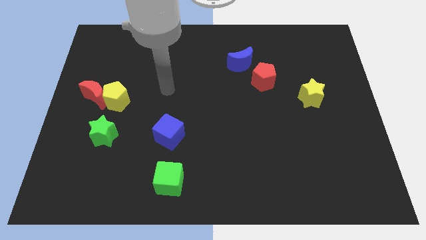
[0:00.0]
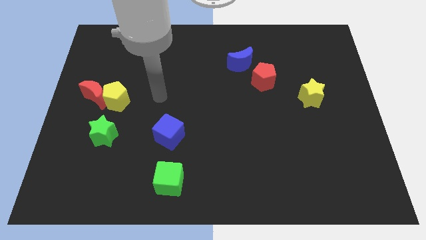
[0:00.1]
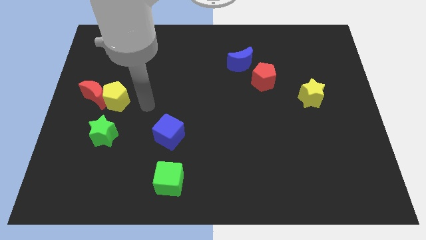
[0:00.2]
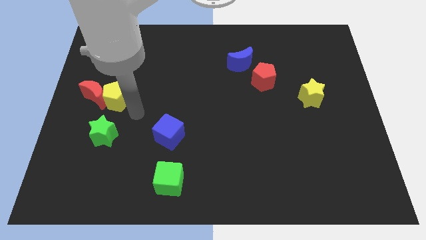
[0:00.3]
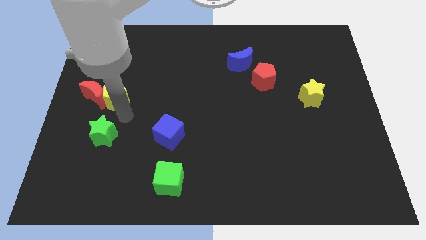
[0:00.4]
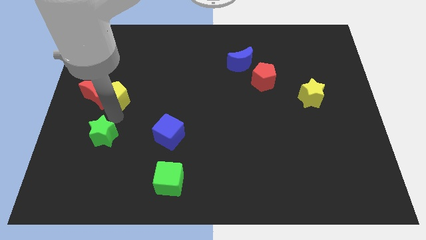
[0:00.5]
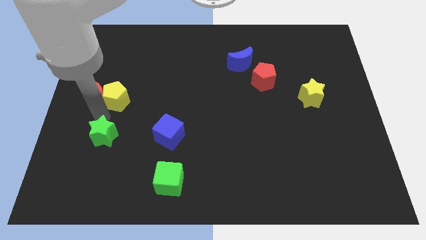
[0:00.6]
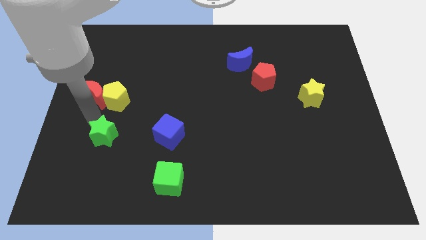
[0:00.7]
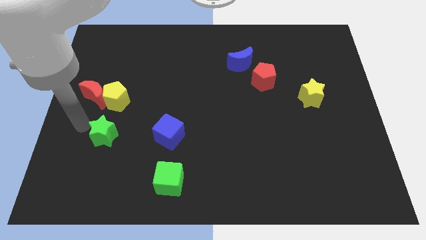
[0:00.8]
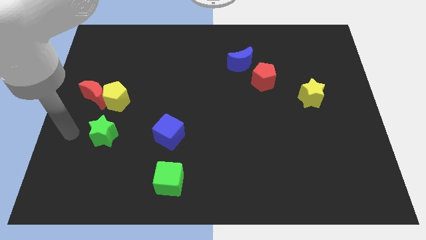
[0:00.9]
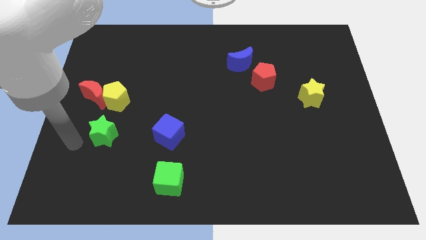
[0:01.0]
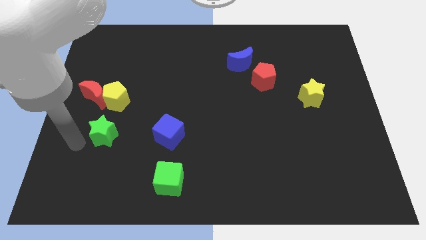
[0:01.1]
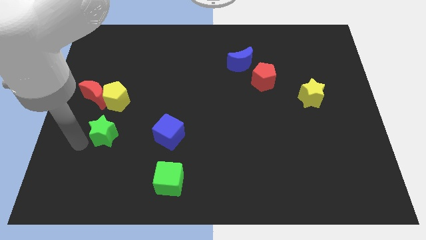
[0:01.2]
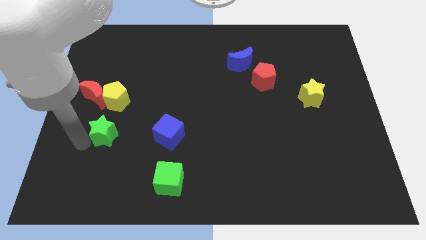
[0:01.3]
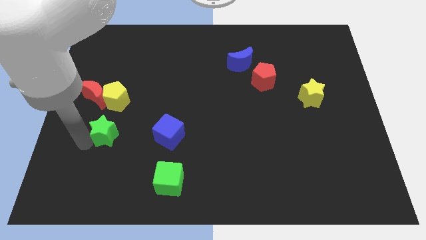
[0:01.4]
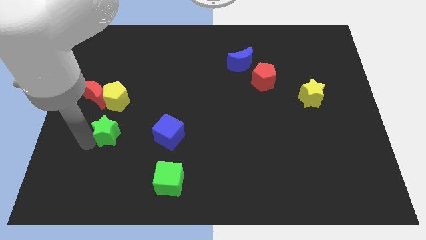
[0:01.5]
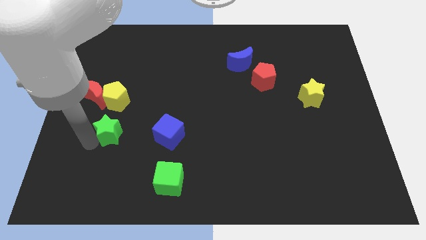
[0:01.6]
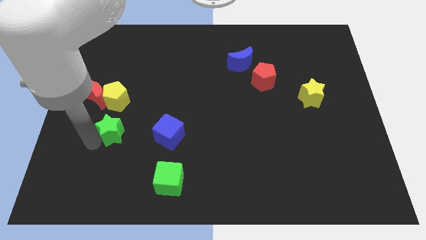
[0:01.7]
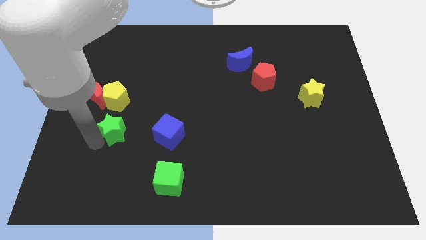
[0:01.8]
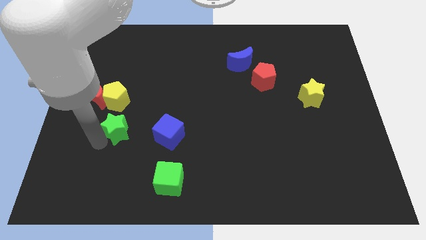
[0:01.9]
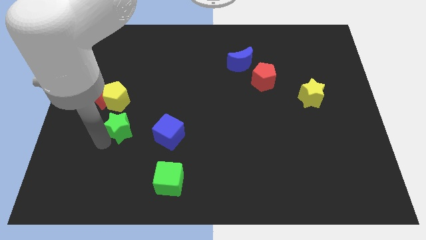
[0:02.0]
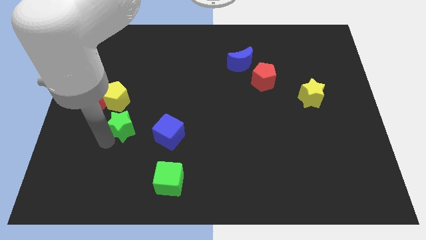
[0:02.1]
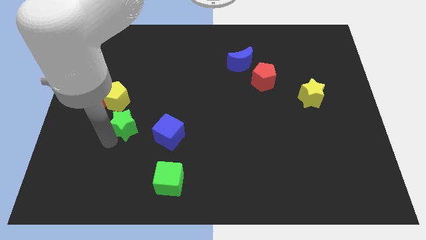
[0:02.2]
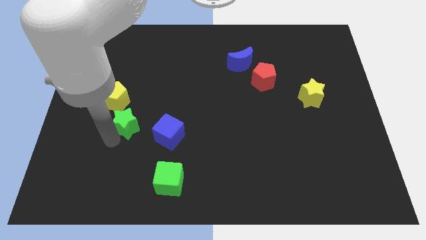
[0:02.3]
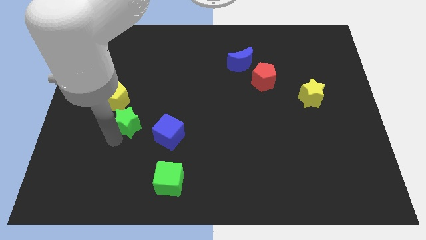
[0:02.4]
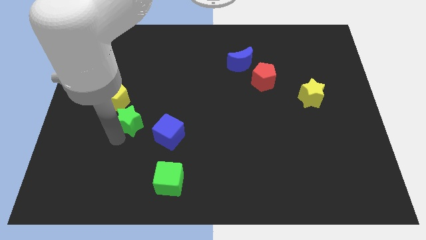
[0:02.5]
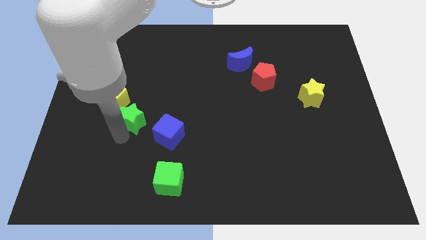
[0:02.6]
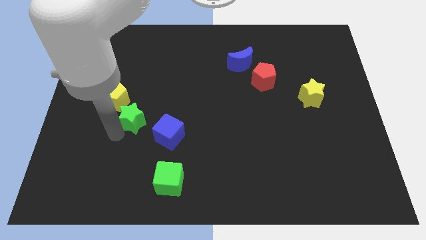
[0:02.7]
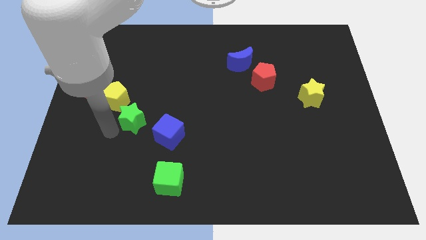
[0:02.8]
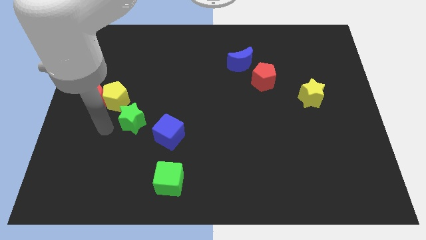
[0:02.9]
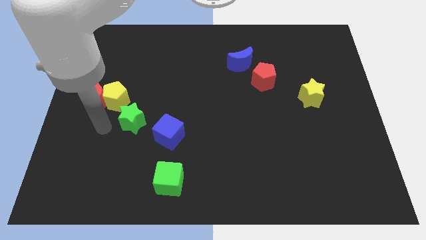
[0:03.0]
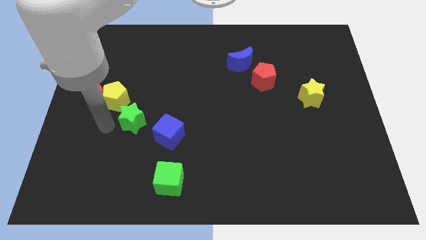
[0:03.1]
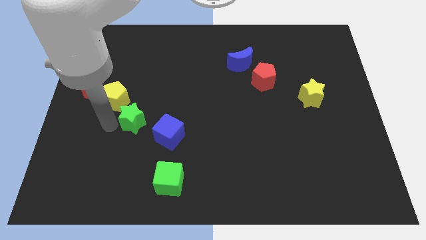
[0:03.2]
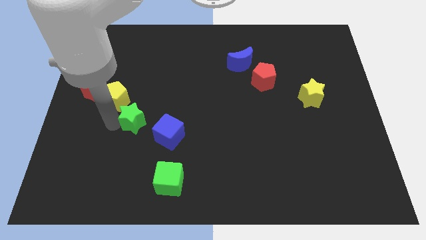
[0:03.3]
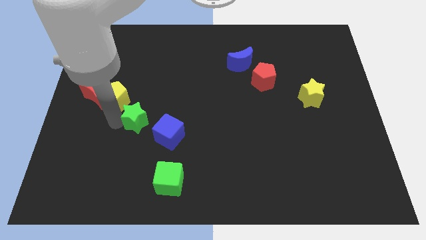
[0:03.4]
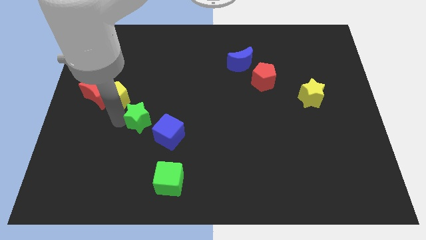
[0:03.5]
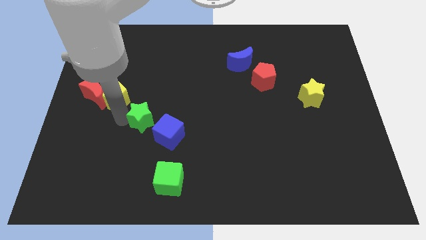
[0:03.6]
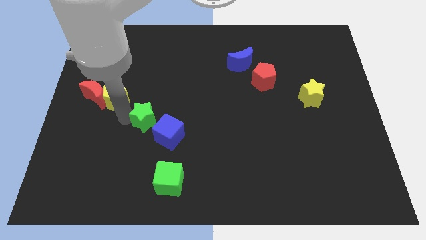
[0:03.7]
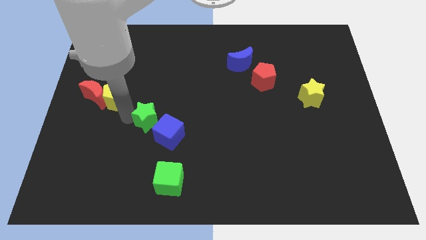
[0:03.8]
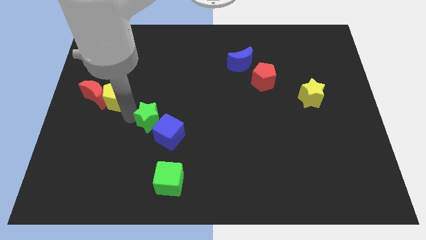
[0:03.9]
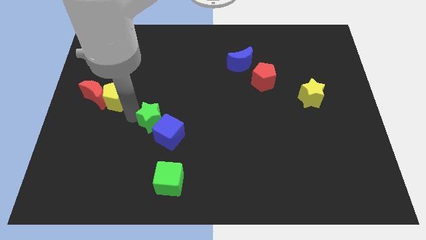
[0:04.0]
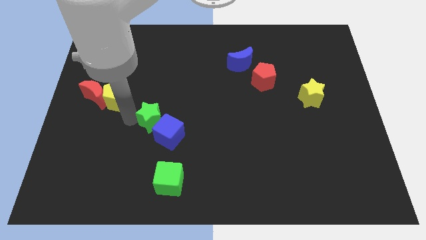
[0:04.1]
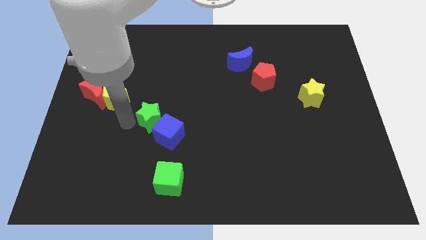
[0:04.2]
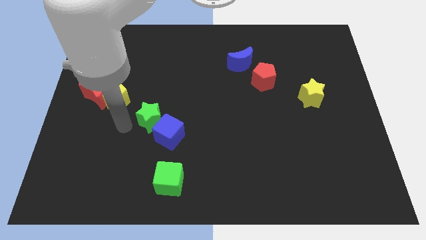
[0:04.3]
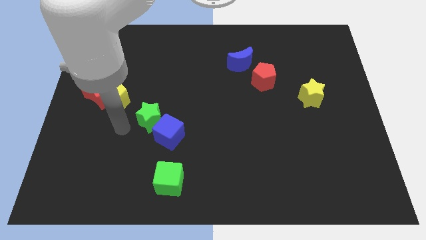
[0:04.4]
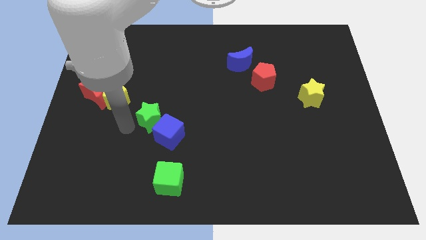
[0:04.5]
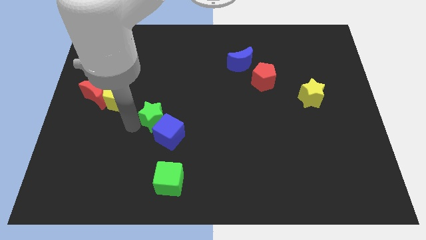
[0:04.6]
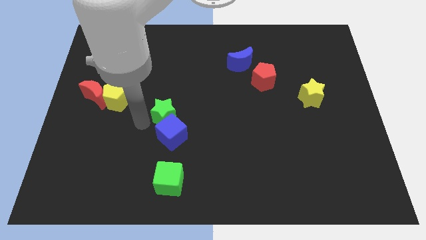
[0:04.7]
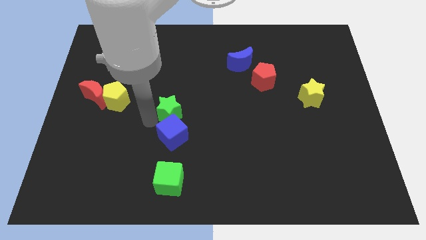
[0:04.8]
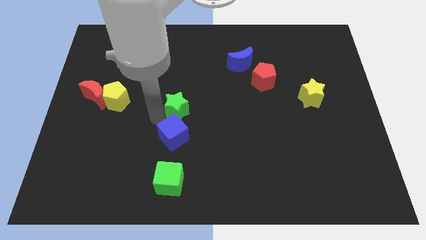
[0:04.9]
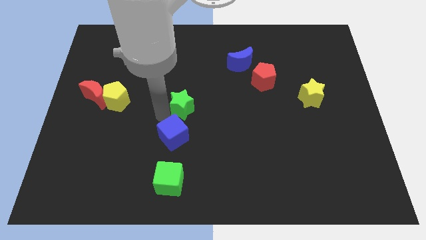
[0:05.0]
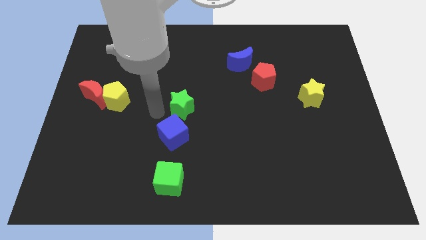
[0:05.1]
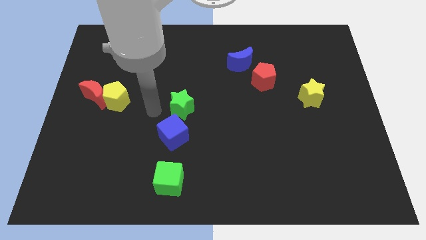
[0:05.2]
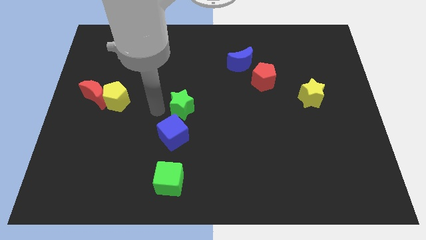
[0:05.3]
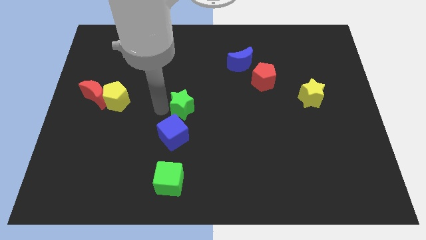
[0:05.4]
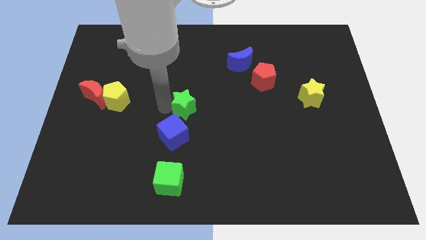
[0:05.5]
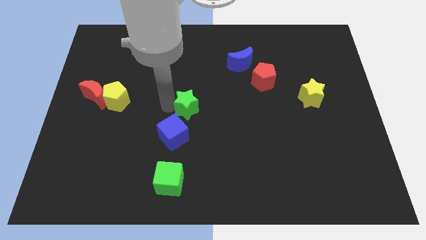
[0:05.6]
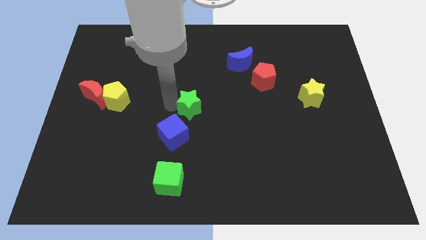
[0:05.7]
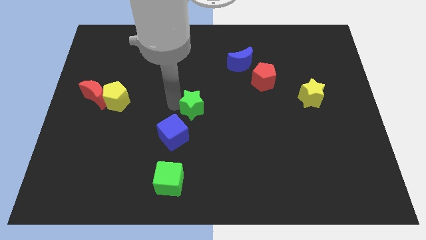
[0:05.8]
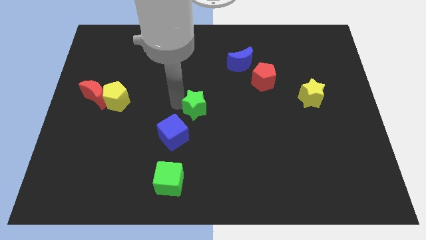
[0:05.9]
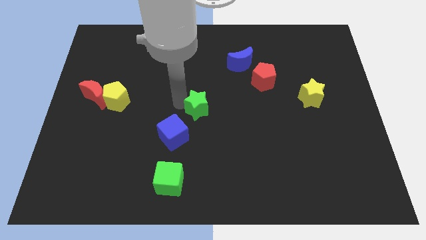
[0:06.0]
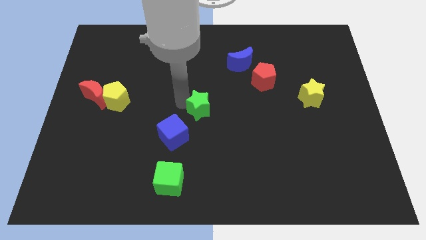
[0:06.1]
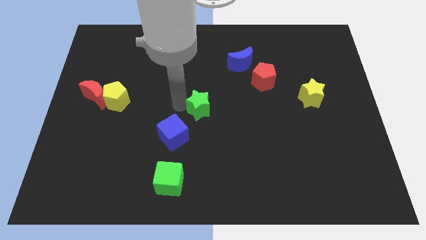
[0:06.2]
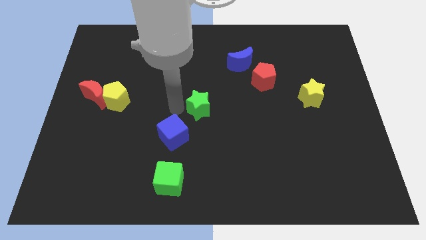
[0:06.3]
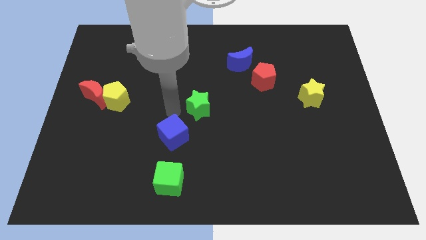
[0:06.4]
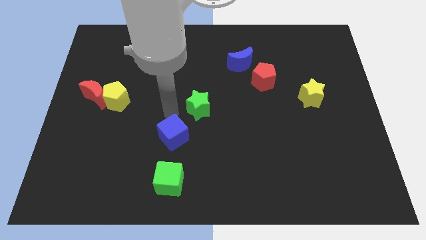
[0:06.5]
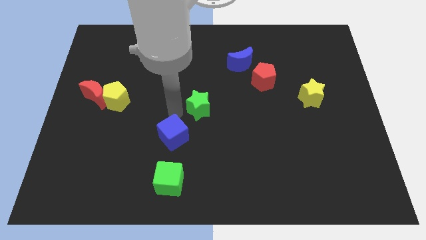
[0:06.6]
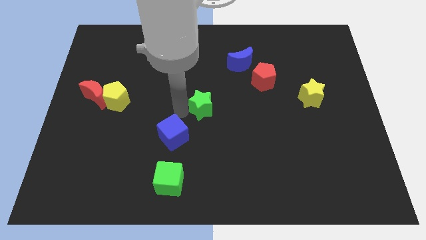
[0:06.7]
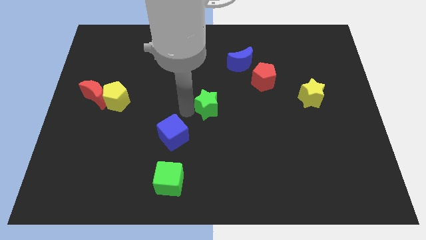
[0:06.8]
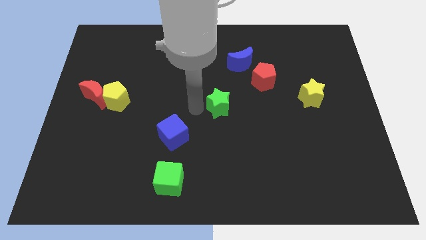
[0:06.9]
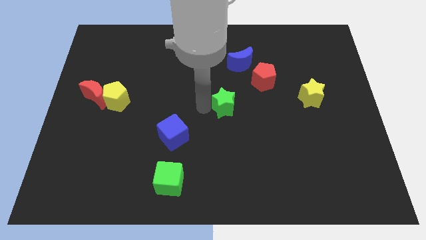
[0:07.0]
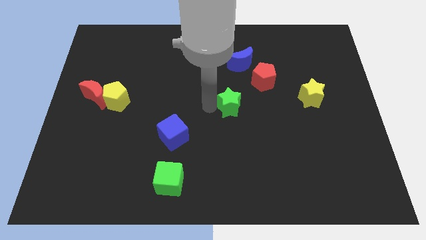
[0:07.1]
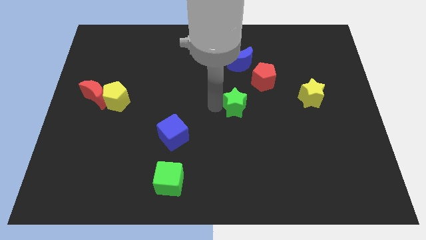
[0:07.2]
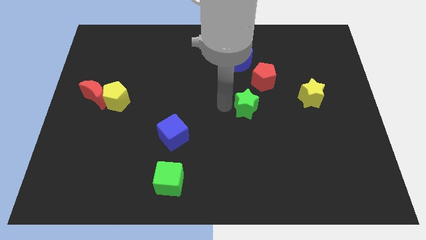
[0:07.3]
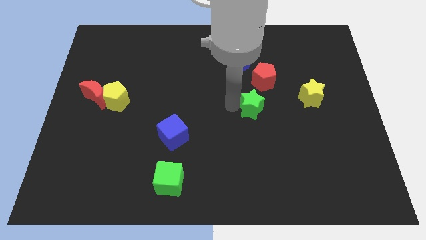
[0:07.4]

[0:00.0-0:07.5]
move the green star to the bottom of the red pentagon
